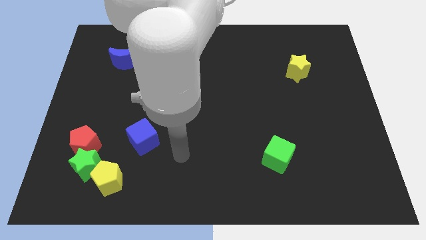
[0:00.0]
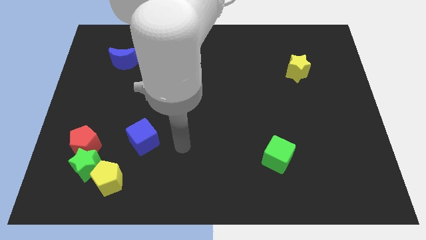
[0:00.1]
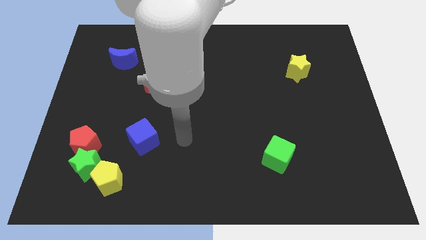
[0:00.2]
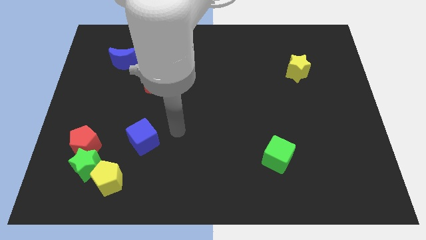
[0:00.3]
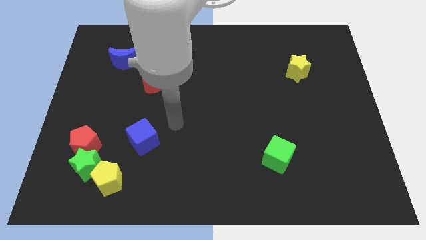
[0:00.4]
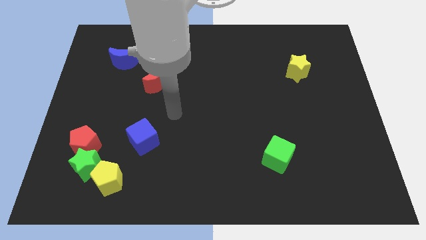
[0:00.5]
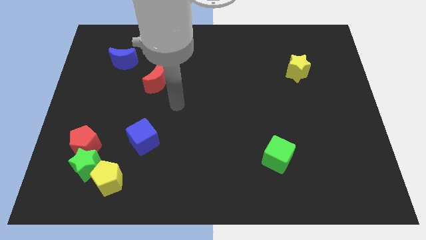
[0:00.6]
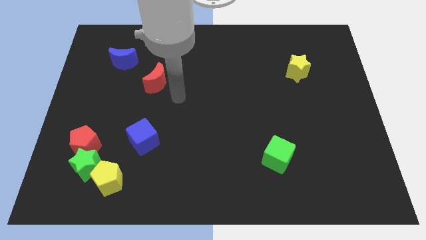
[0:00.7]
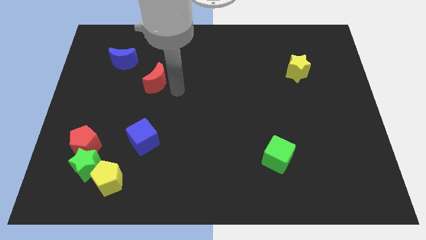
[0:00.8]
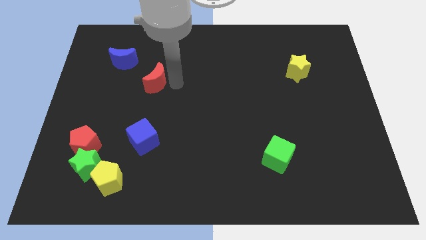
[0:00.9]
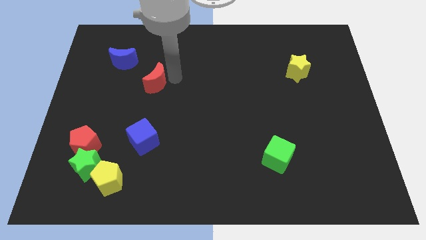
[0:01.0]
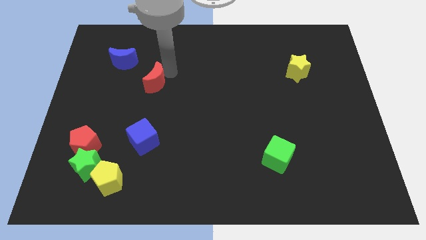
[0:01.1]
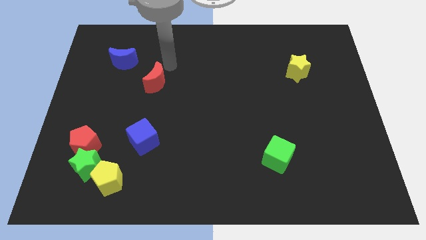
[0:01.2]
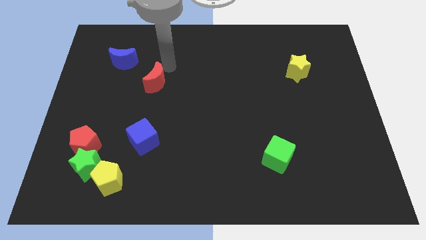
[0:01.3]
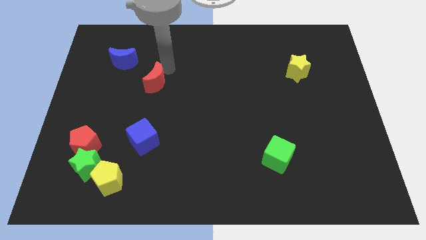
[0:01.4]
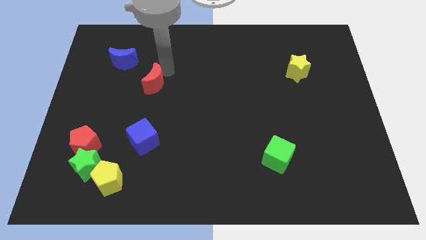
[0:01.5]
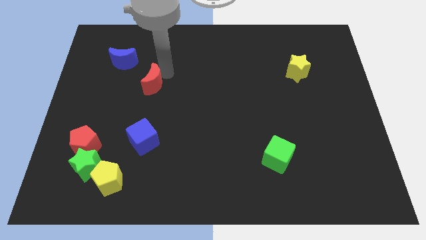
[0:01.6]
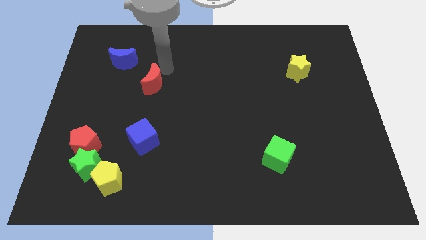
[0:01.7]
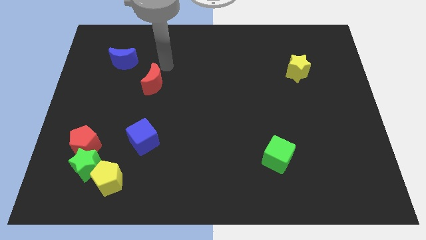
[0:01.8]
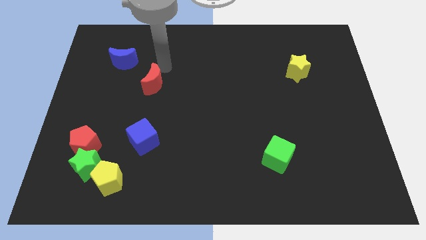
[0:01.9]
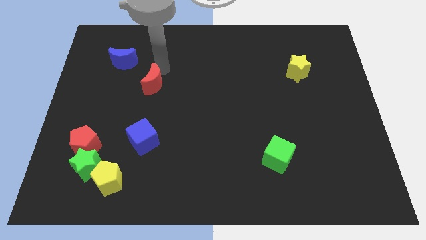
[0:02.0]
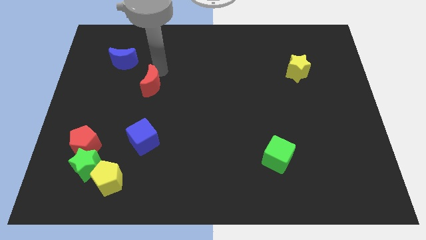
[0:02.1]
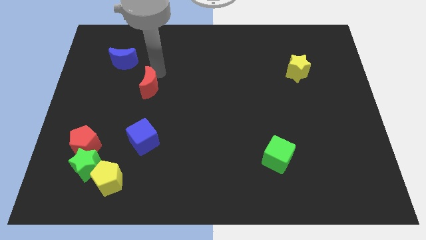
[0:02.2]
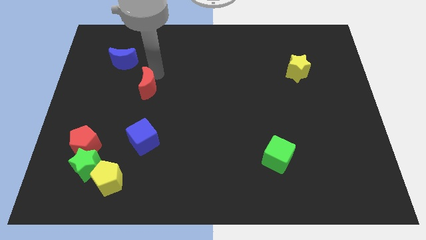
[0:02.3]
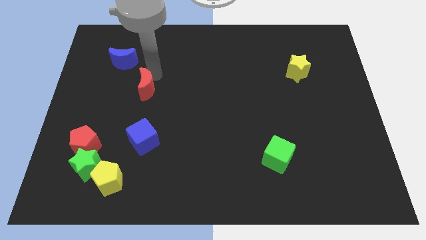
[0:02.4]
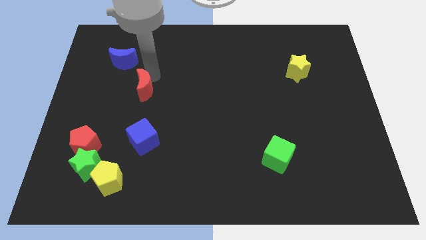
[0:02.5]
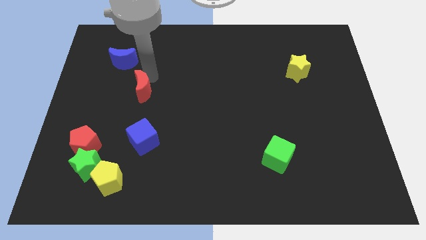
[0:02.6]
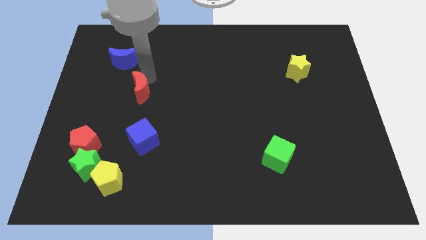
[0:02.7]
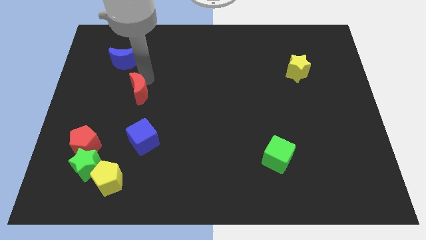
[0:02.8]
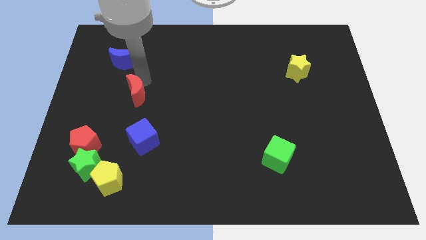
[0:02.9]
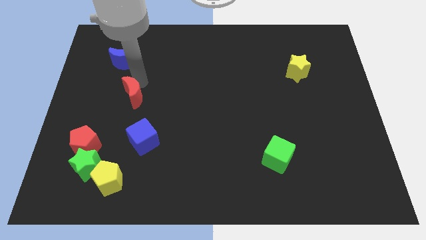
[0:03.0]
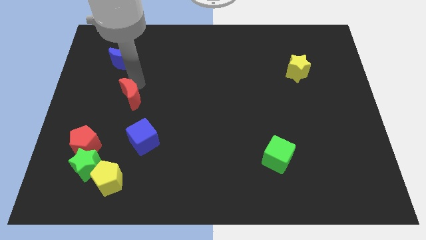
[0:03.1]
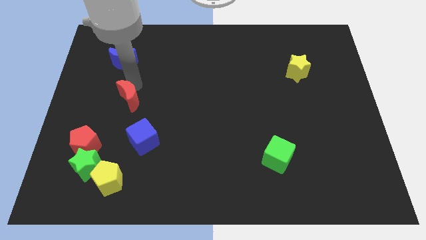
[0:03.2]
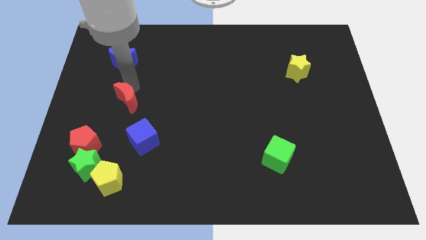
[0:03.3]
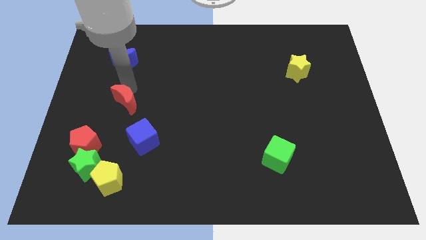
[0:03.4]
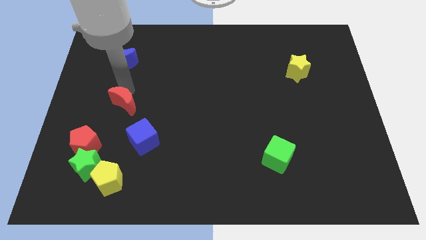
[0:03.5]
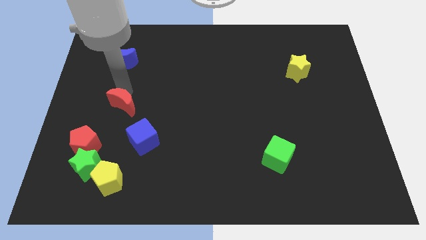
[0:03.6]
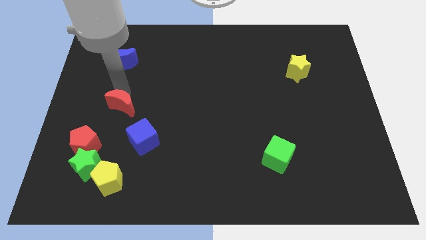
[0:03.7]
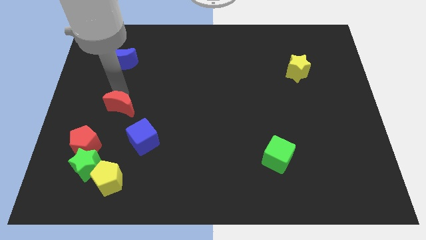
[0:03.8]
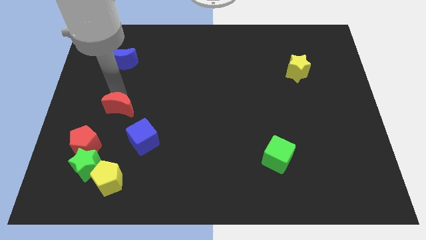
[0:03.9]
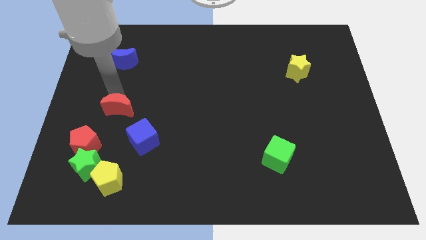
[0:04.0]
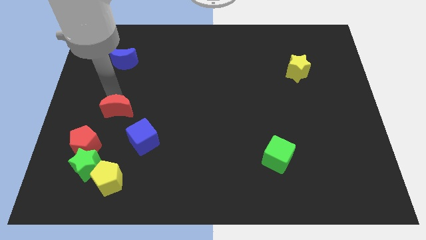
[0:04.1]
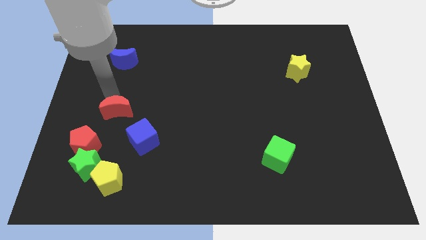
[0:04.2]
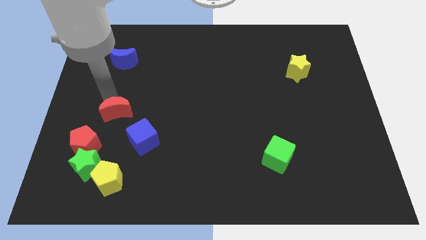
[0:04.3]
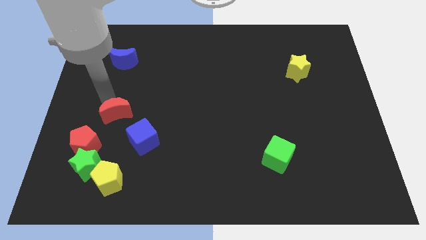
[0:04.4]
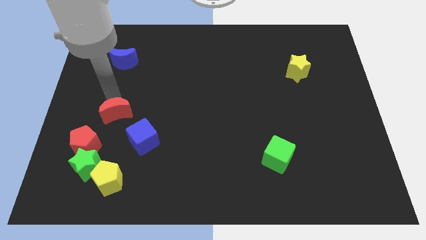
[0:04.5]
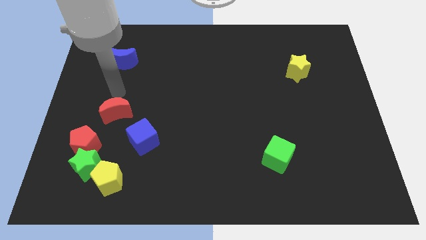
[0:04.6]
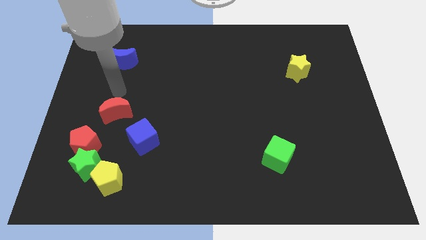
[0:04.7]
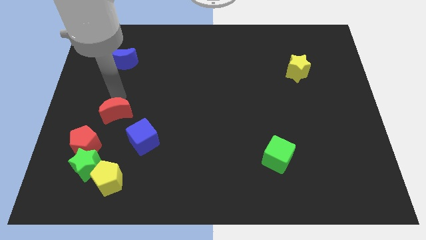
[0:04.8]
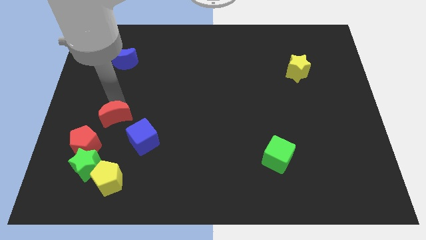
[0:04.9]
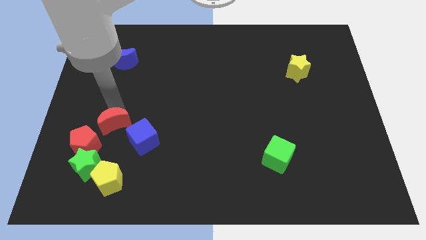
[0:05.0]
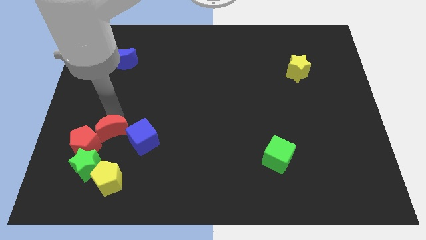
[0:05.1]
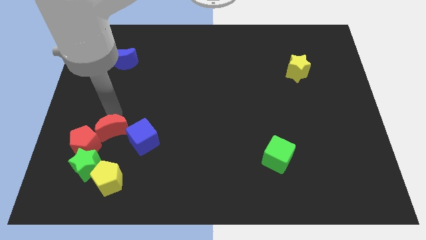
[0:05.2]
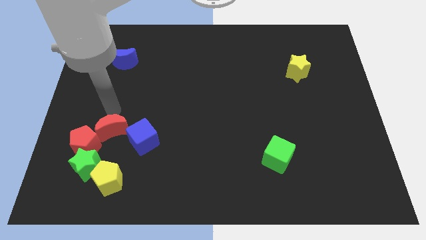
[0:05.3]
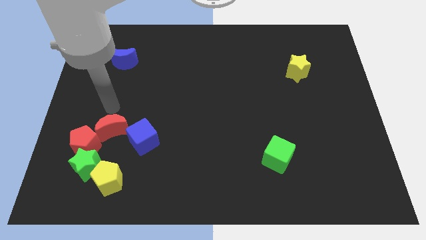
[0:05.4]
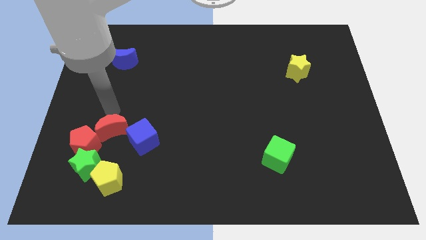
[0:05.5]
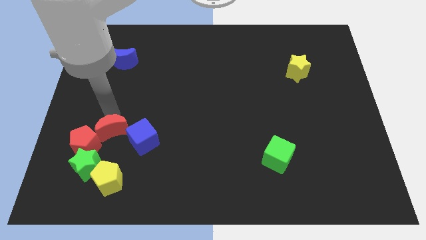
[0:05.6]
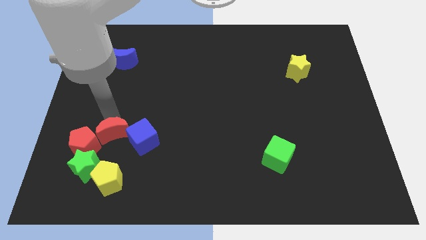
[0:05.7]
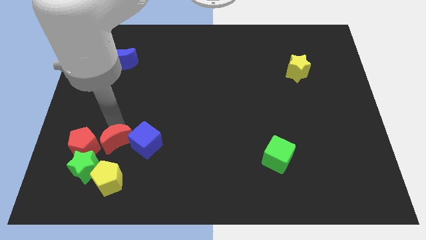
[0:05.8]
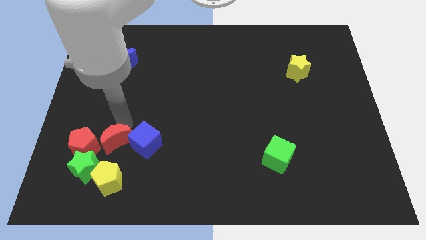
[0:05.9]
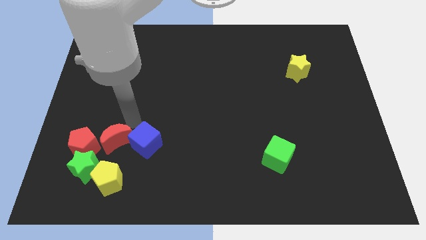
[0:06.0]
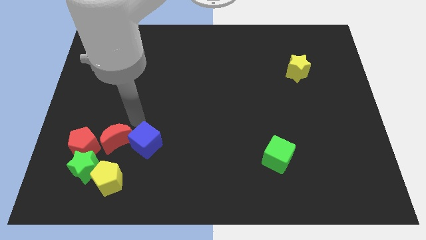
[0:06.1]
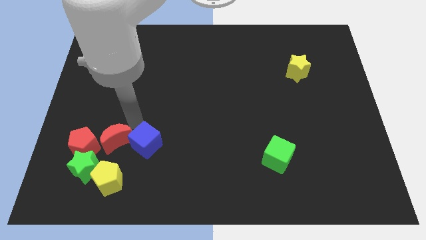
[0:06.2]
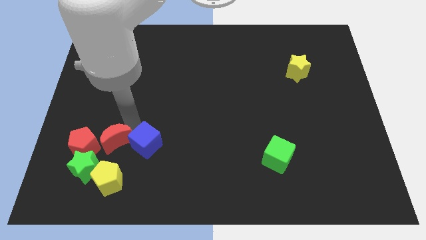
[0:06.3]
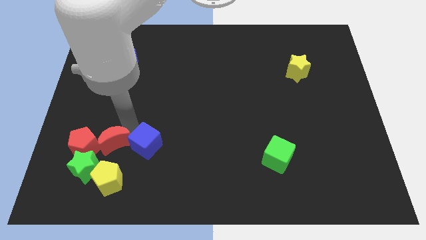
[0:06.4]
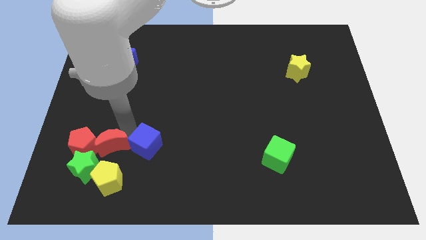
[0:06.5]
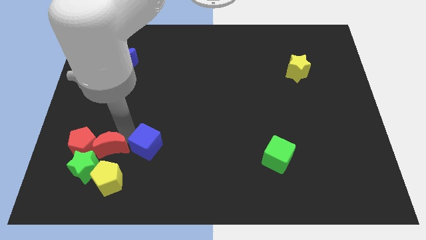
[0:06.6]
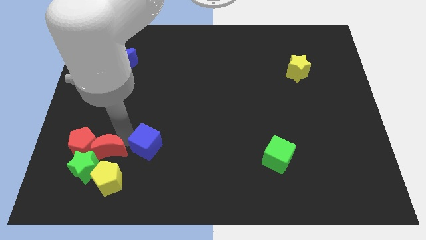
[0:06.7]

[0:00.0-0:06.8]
push the red moon next to the green star

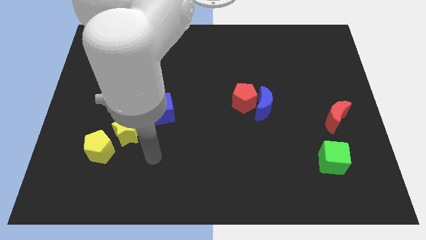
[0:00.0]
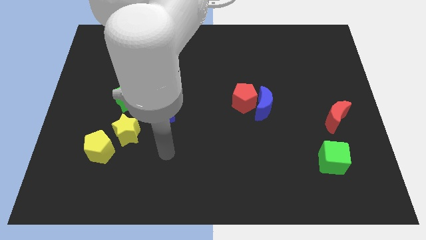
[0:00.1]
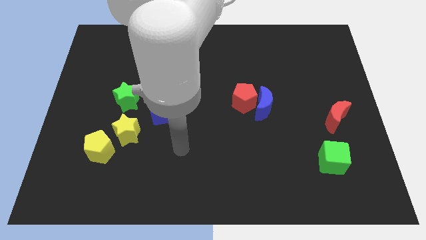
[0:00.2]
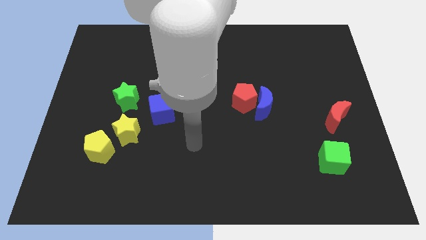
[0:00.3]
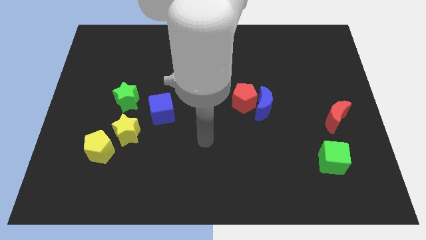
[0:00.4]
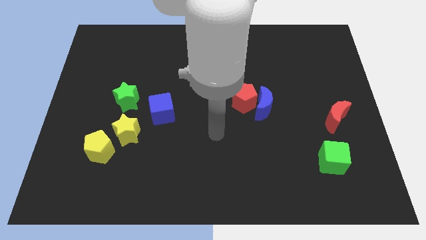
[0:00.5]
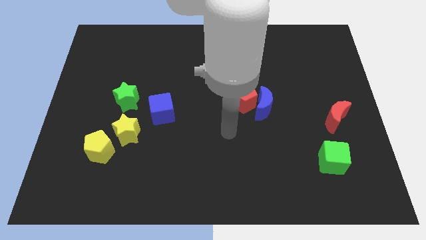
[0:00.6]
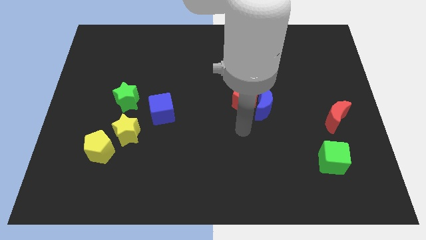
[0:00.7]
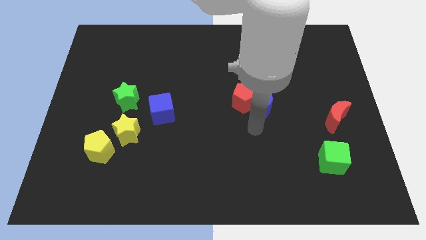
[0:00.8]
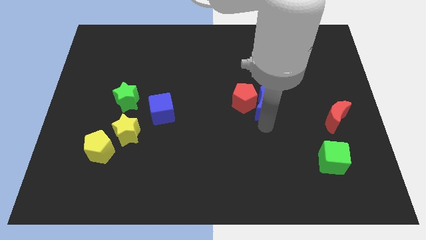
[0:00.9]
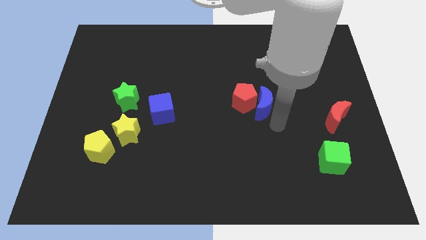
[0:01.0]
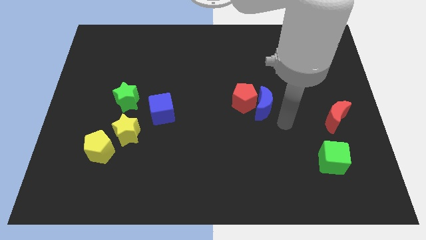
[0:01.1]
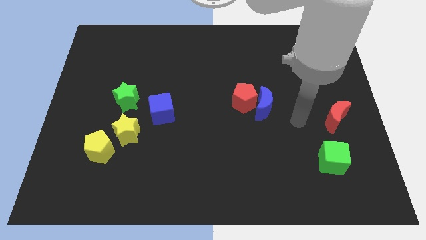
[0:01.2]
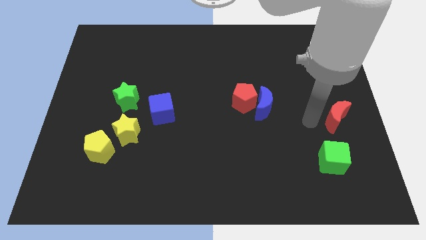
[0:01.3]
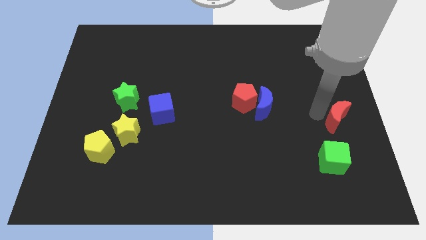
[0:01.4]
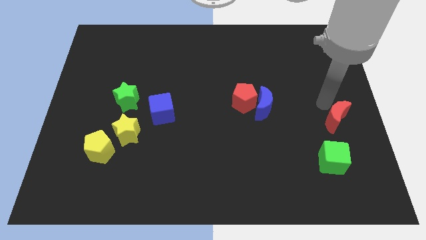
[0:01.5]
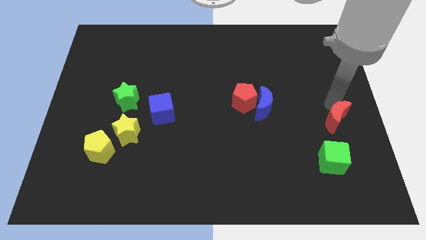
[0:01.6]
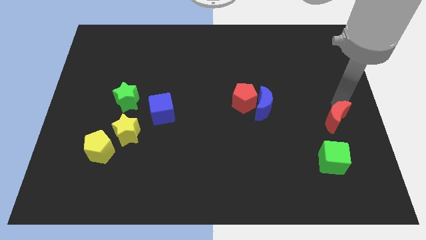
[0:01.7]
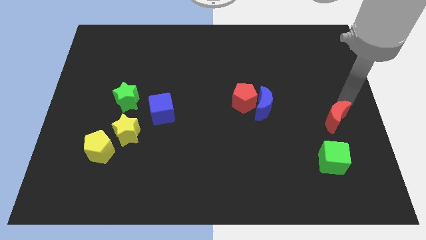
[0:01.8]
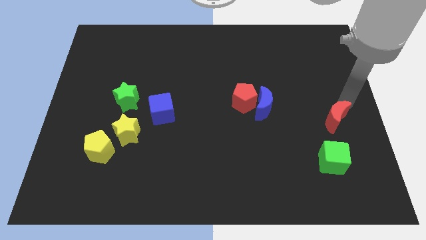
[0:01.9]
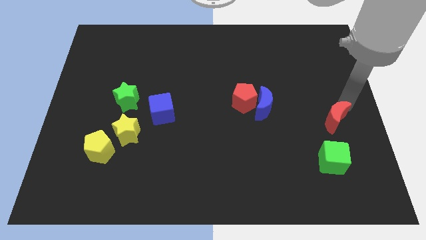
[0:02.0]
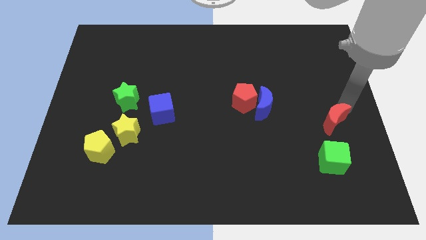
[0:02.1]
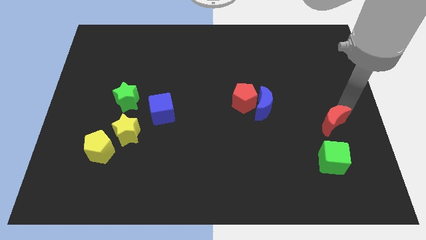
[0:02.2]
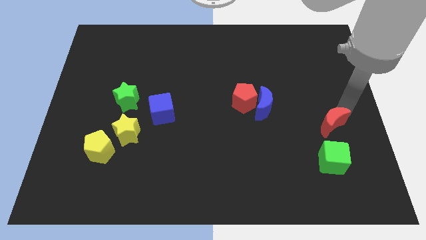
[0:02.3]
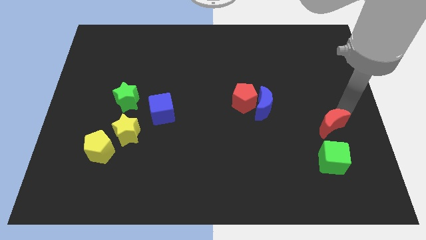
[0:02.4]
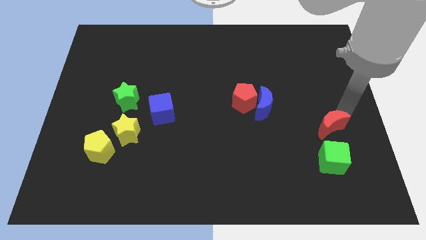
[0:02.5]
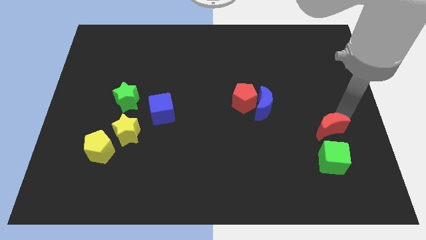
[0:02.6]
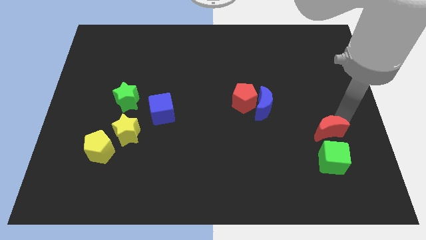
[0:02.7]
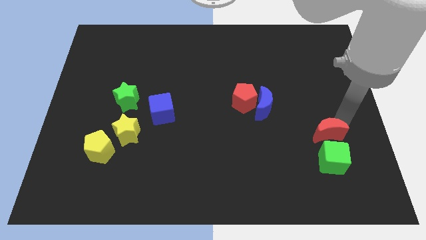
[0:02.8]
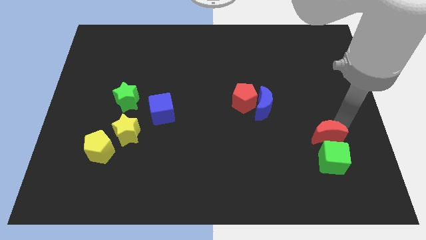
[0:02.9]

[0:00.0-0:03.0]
move the red moon close to the green cube
